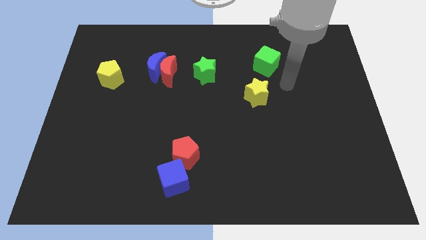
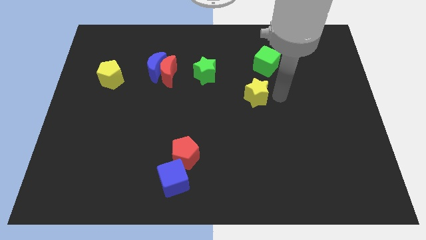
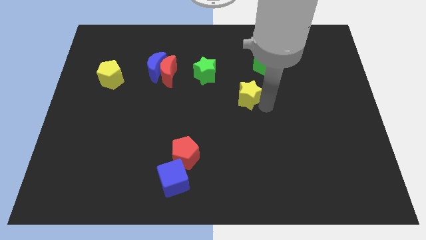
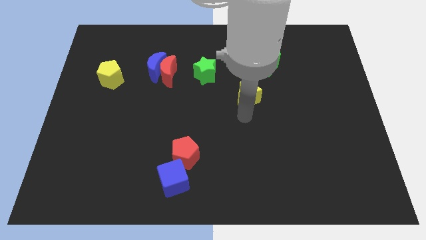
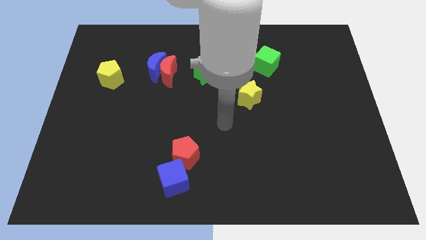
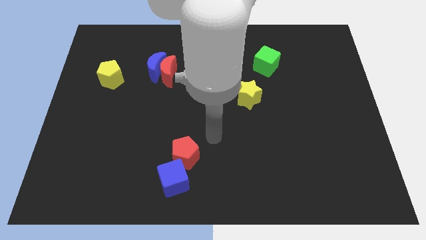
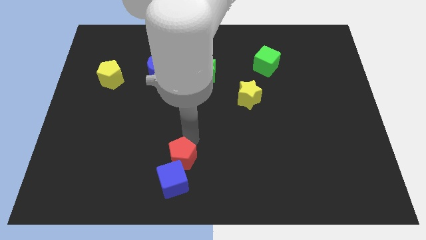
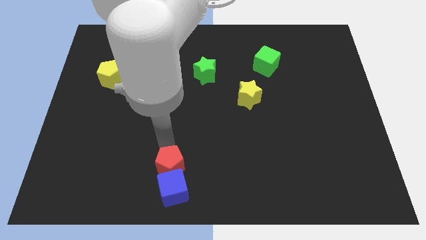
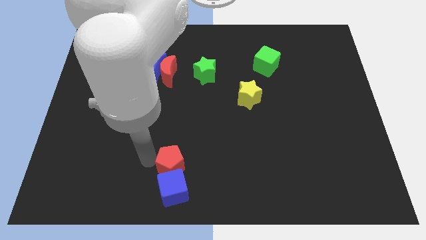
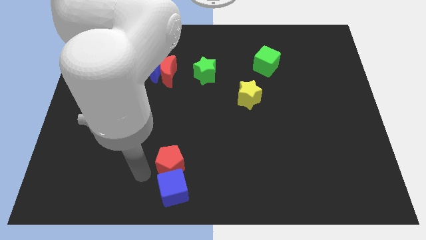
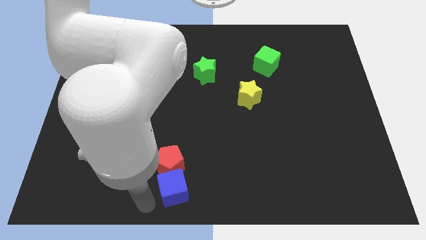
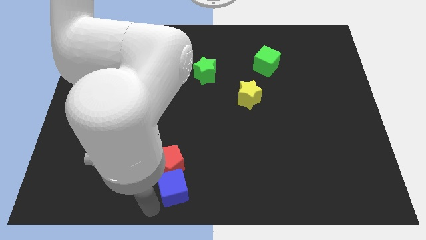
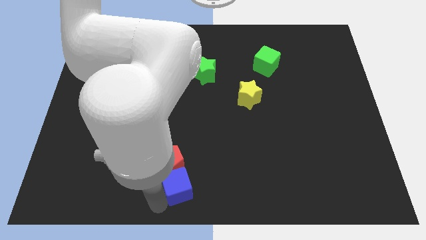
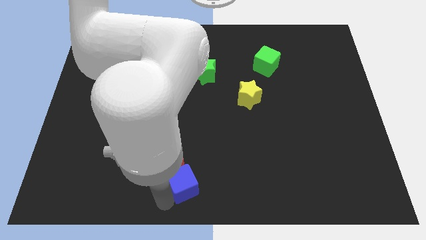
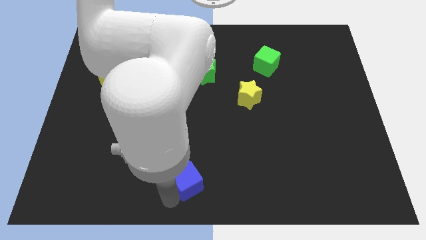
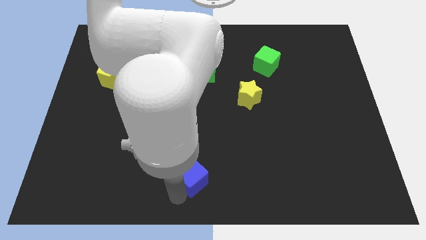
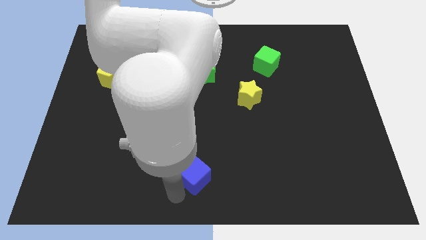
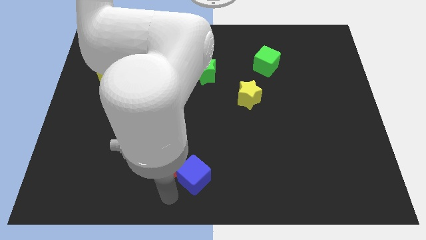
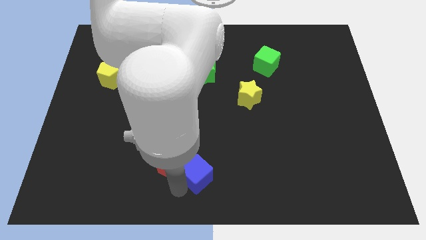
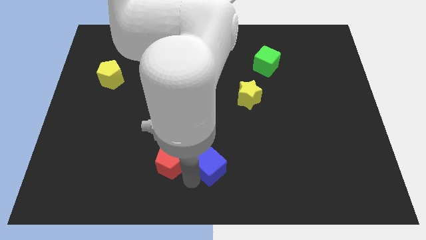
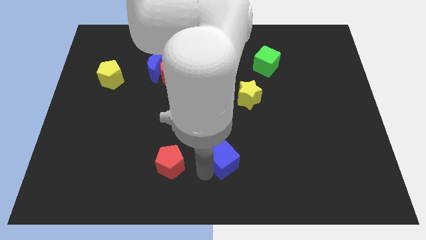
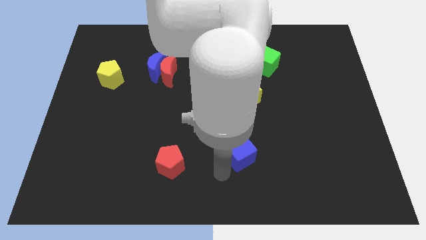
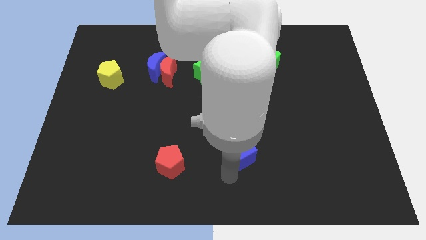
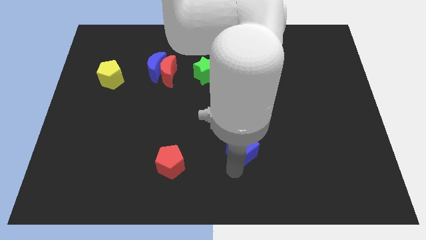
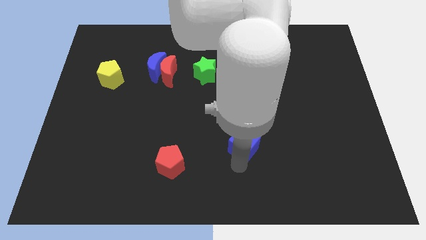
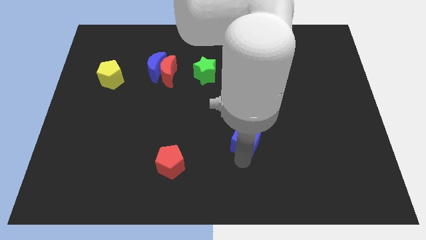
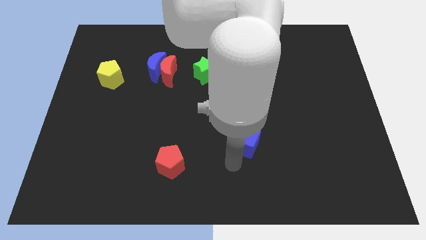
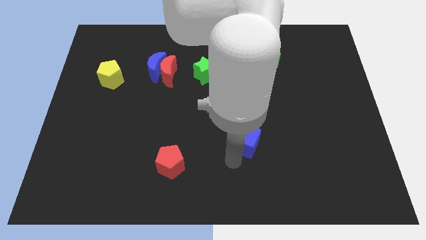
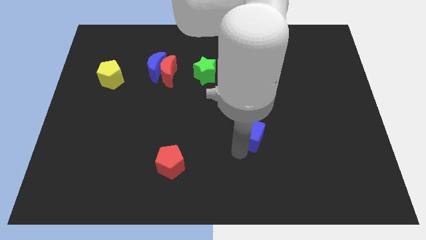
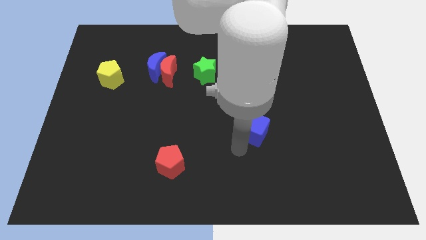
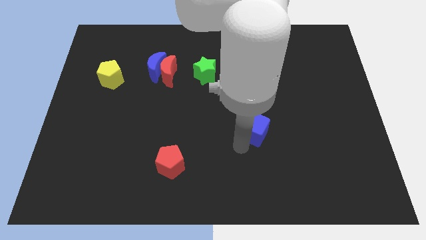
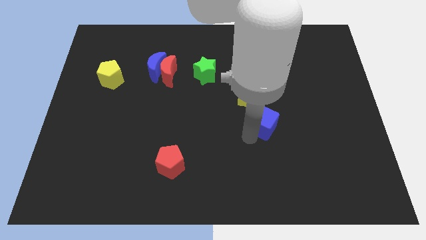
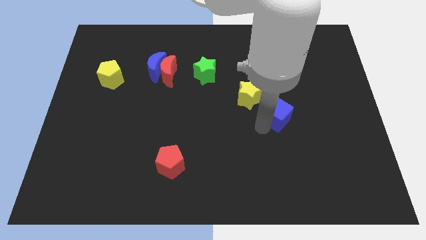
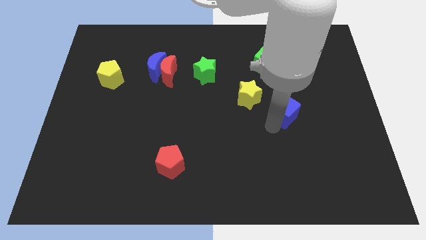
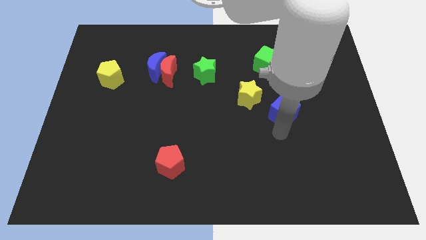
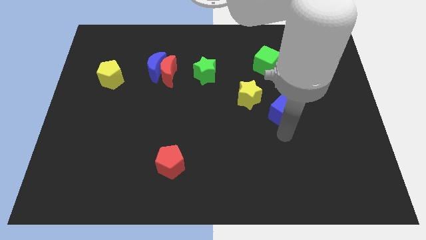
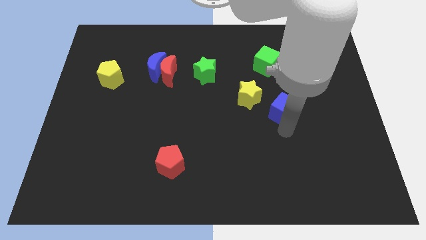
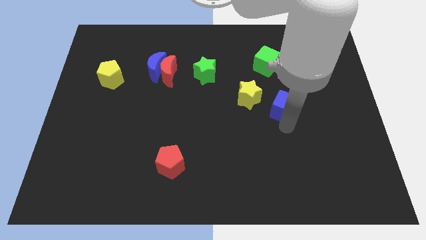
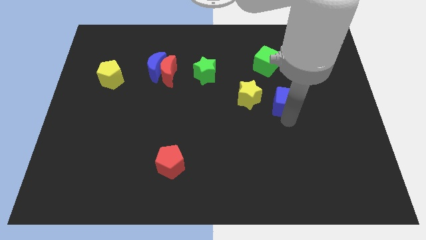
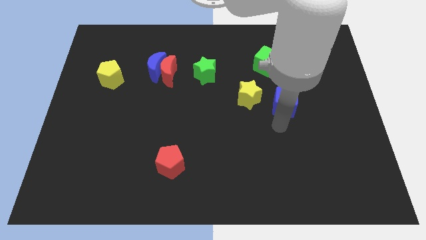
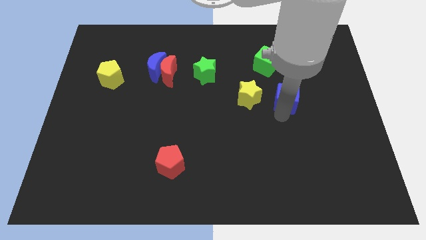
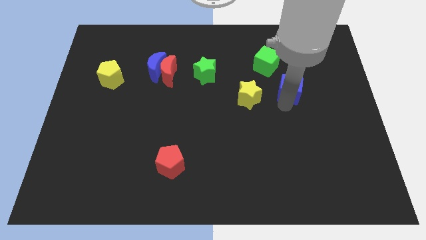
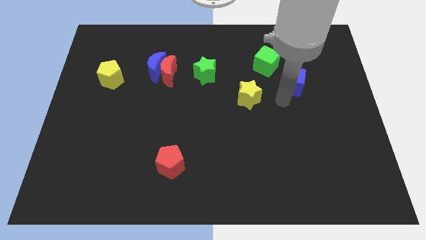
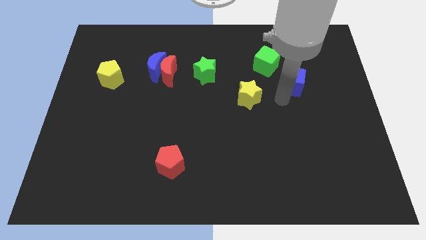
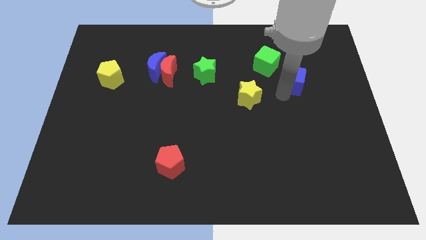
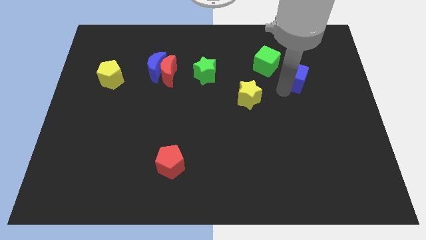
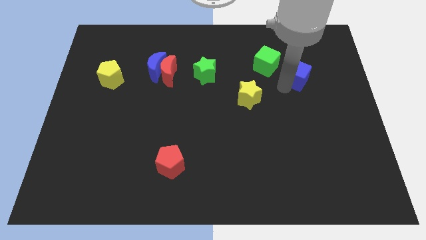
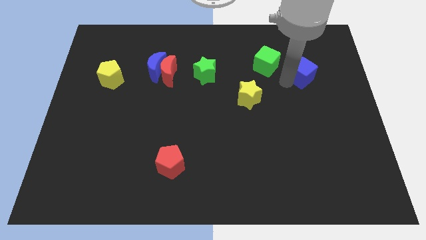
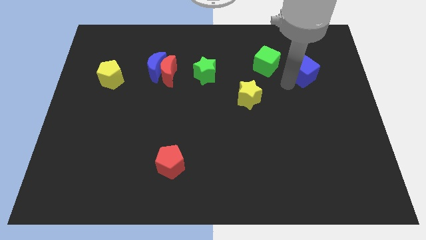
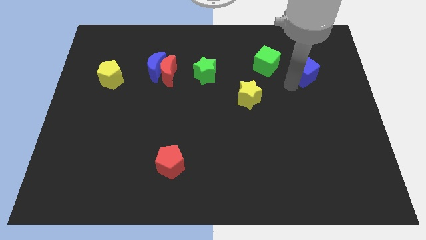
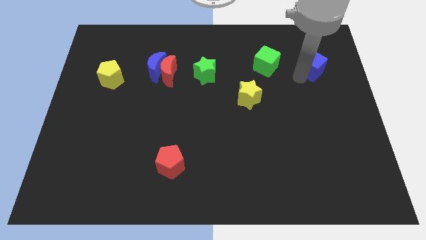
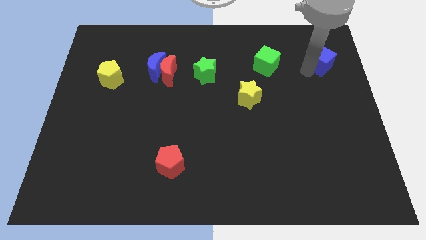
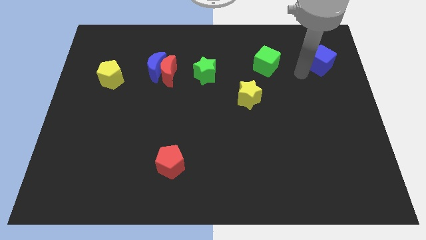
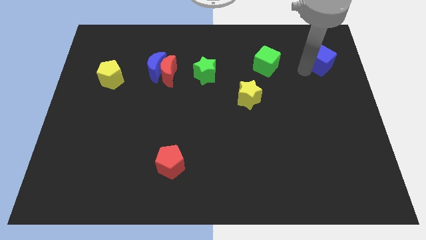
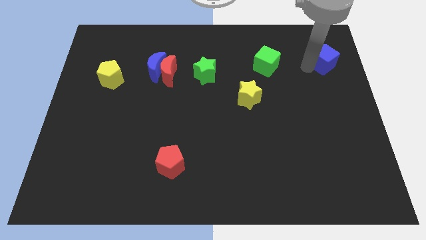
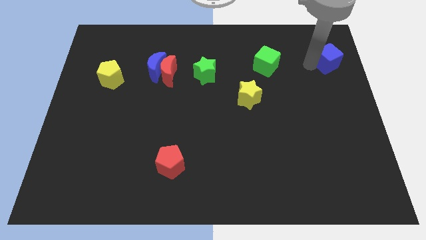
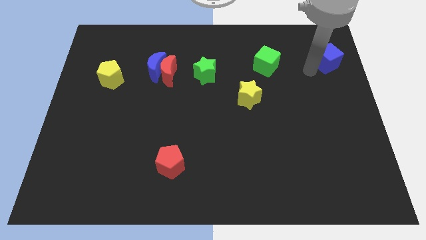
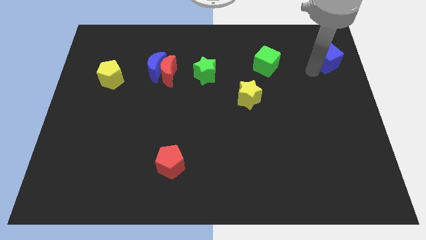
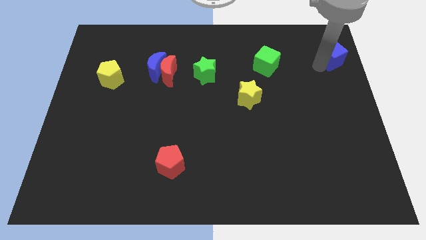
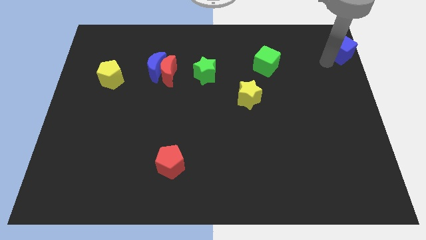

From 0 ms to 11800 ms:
push the blue cube to the upper right corner

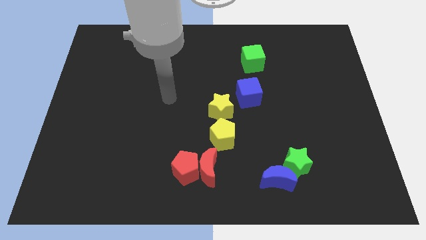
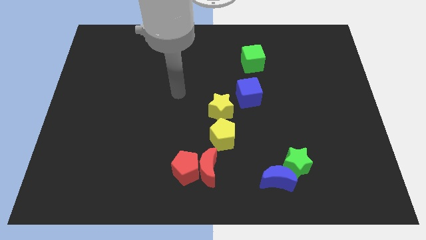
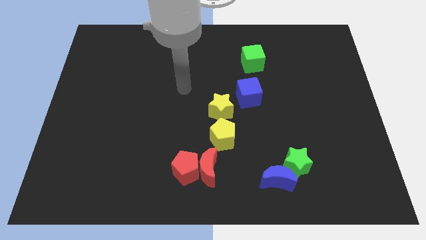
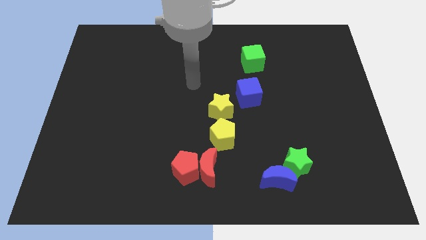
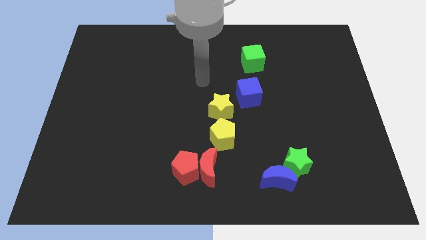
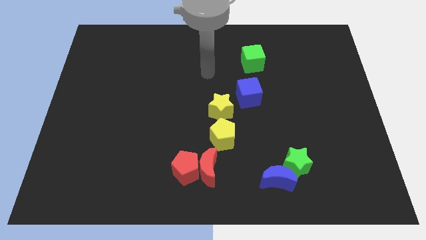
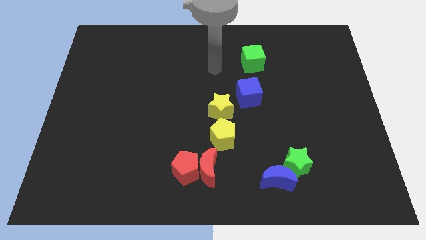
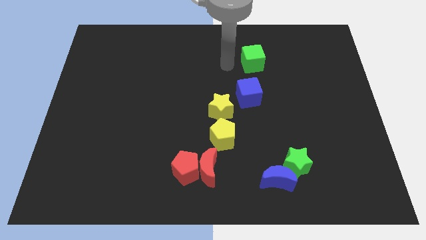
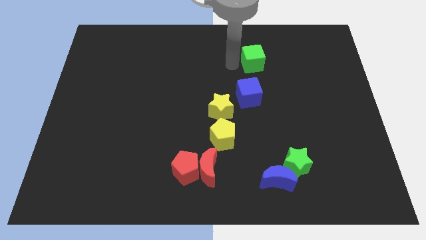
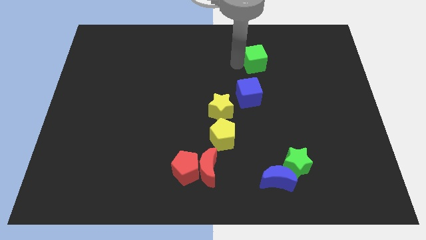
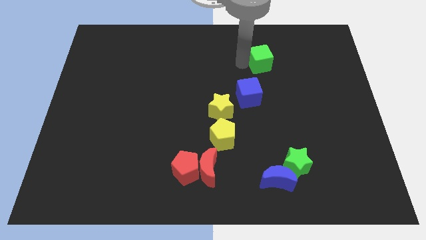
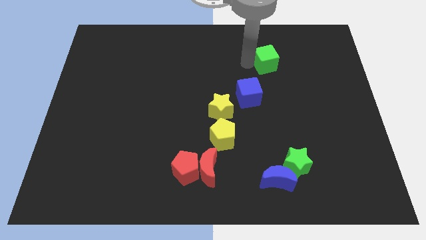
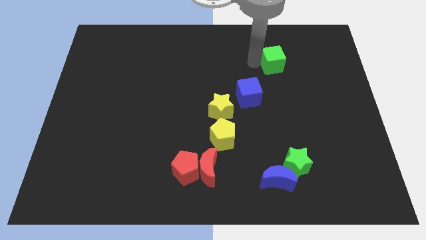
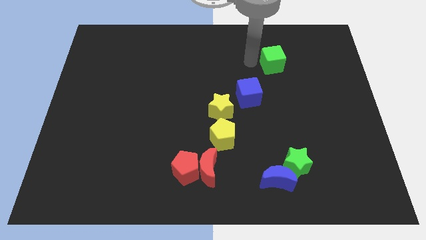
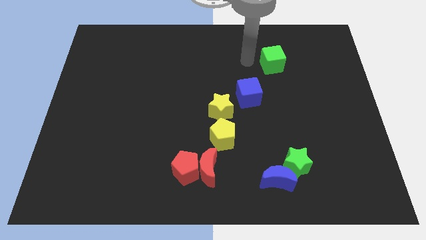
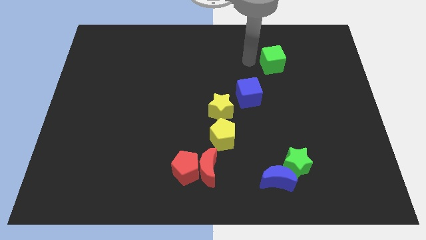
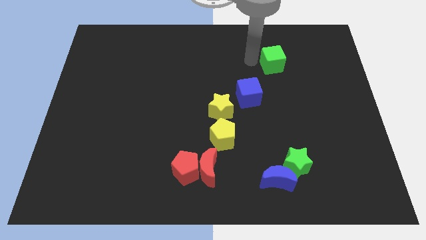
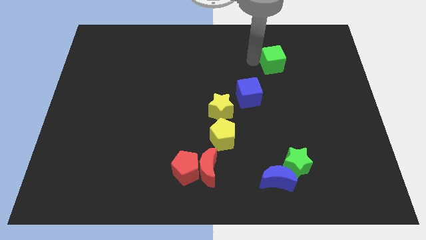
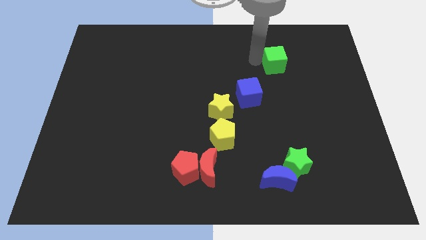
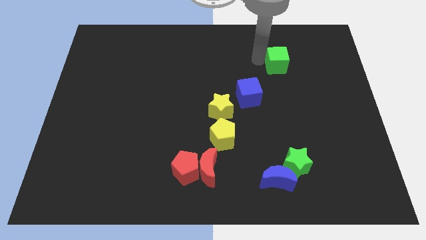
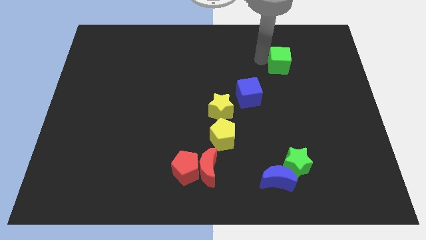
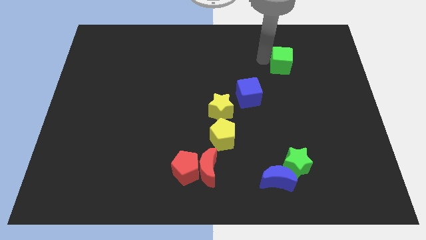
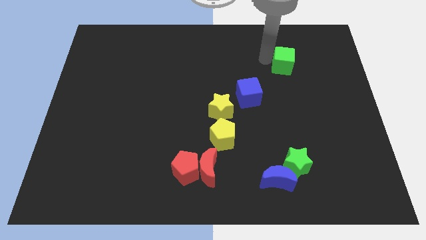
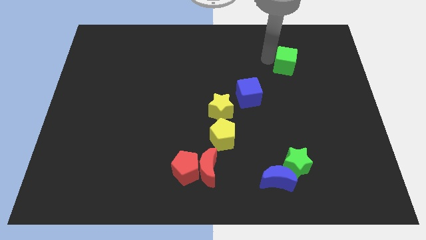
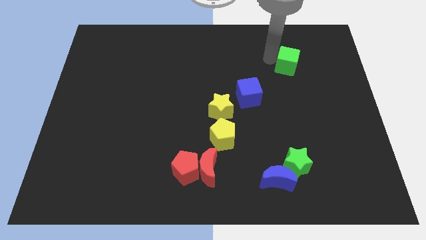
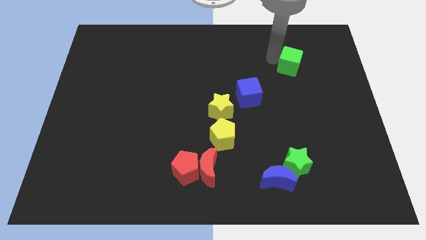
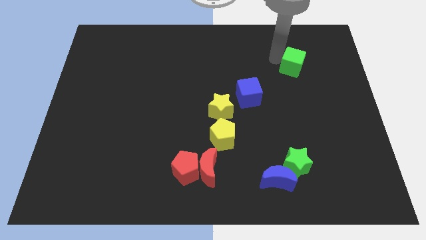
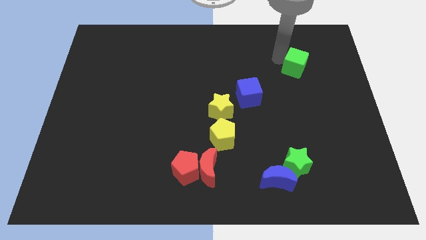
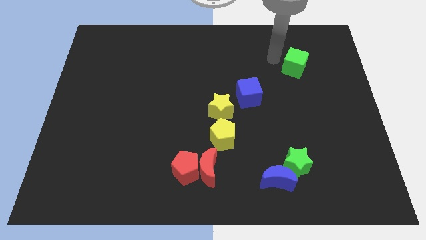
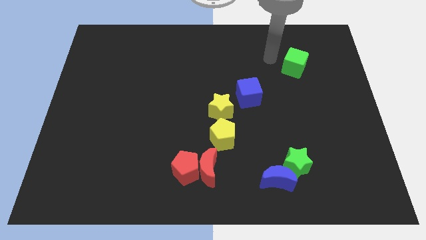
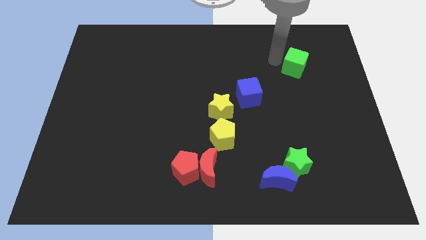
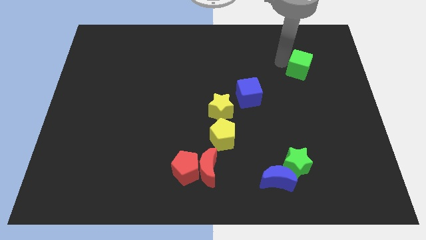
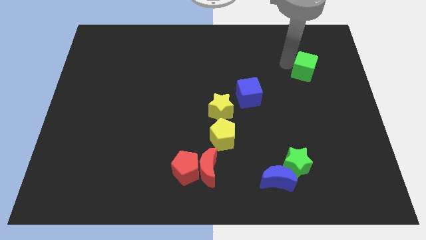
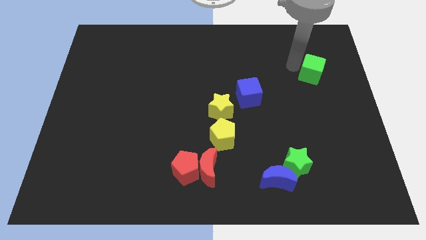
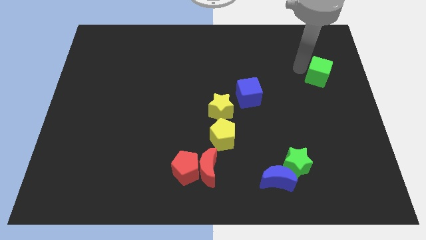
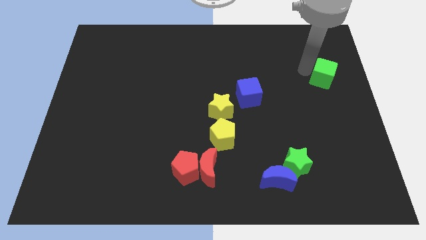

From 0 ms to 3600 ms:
put the green cube to the right side of the board
